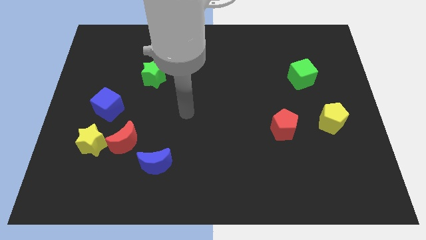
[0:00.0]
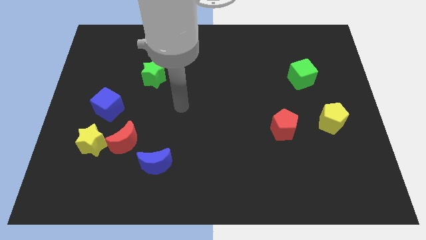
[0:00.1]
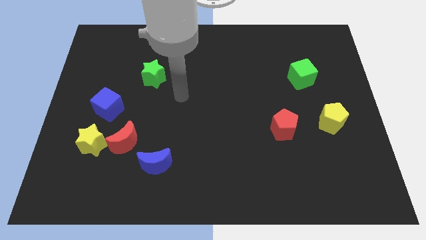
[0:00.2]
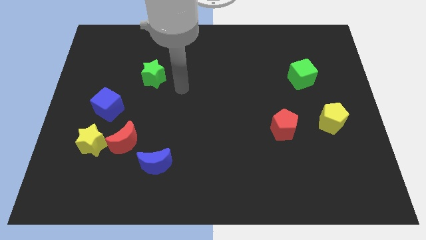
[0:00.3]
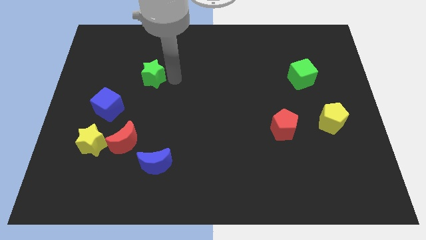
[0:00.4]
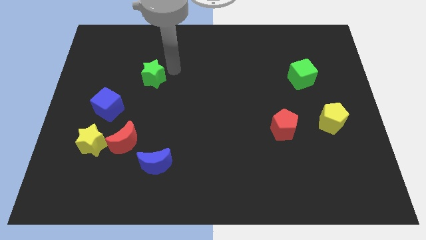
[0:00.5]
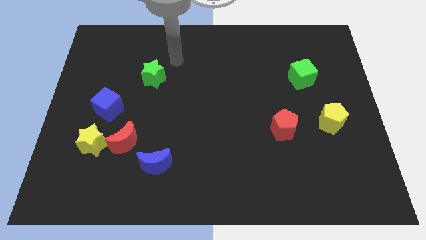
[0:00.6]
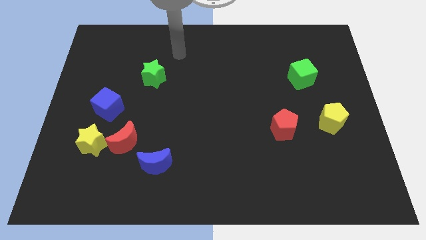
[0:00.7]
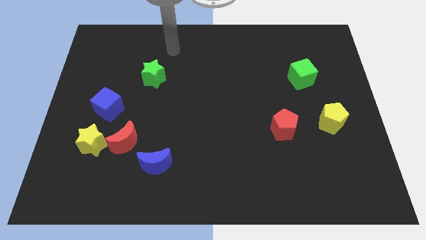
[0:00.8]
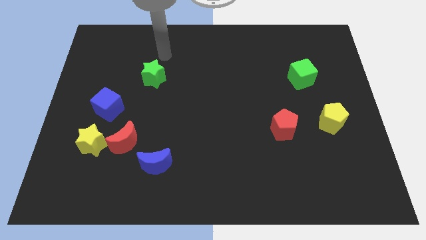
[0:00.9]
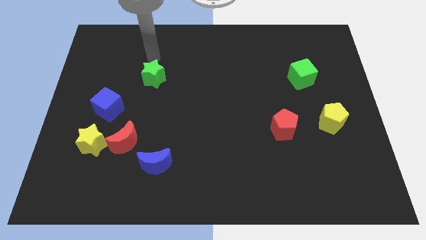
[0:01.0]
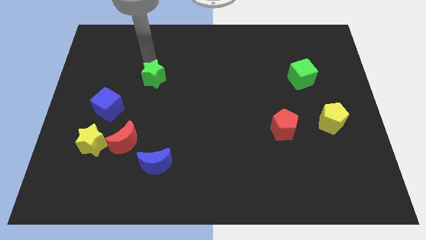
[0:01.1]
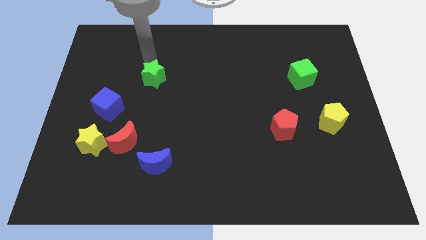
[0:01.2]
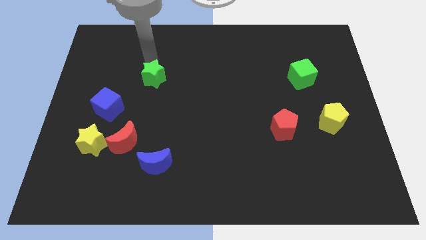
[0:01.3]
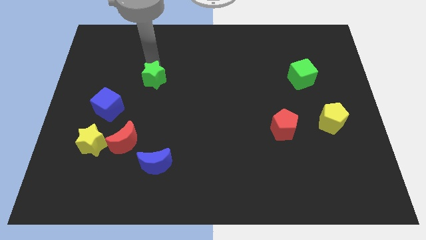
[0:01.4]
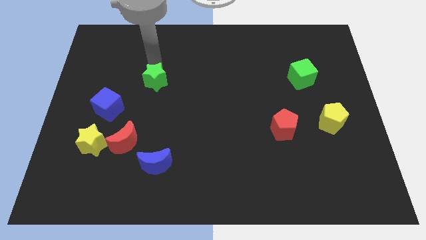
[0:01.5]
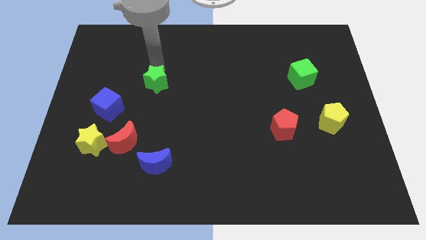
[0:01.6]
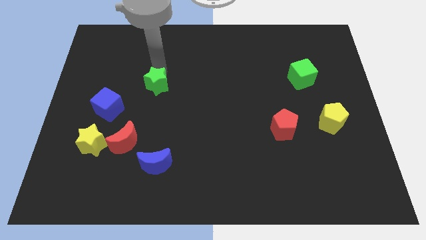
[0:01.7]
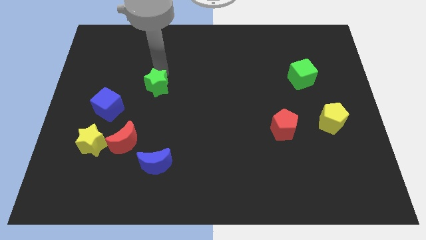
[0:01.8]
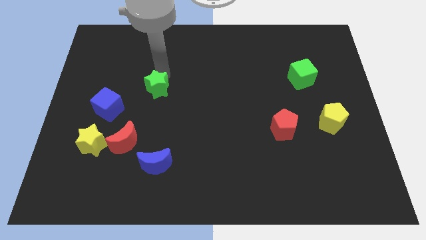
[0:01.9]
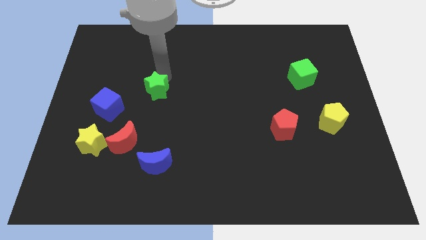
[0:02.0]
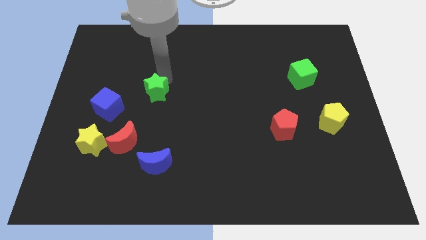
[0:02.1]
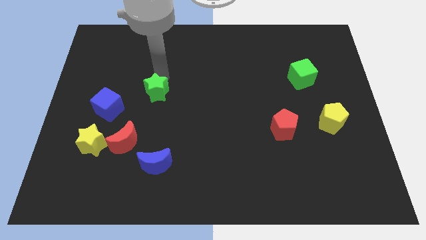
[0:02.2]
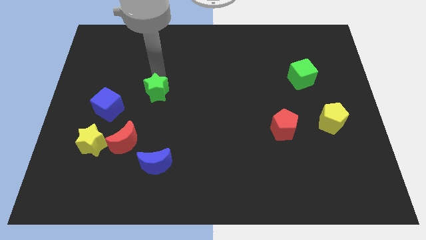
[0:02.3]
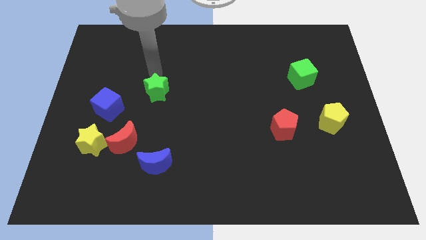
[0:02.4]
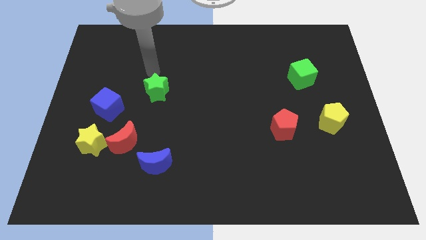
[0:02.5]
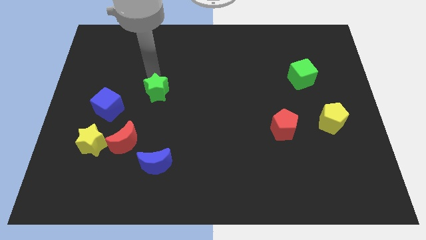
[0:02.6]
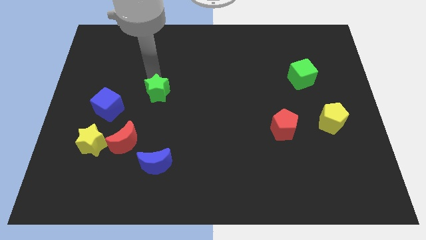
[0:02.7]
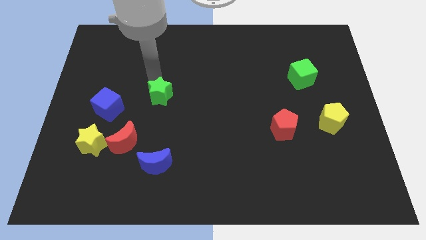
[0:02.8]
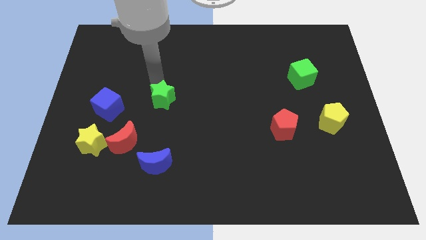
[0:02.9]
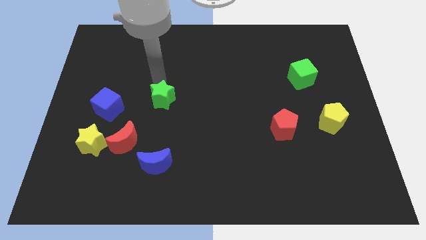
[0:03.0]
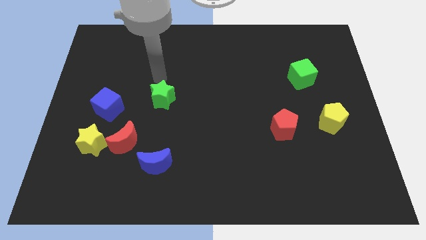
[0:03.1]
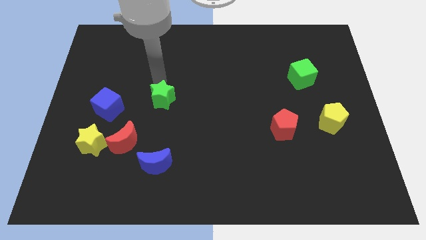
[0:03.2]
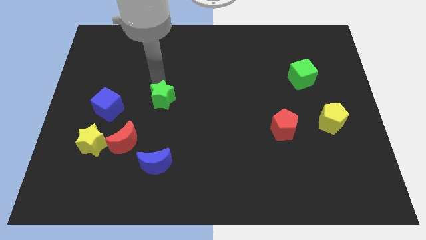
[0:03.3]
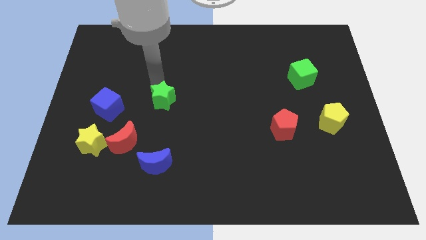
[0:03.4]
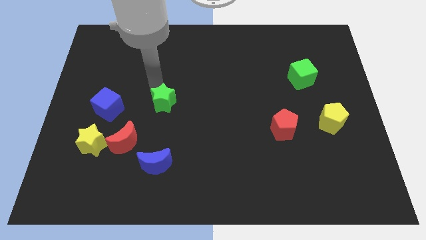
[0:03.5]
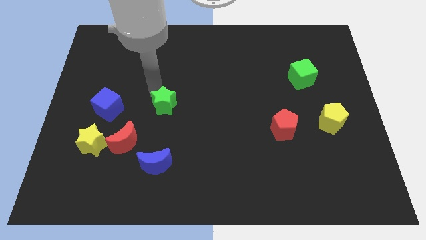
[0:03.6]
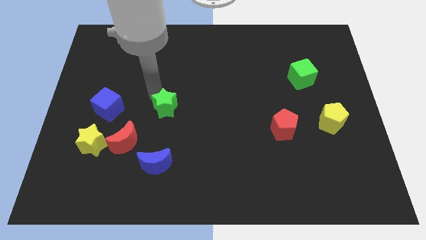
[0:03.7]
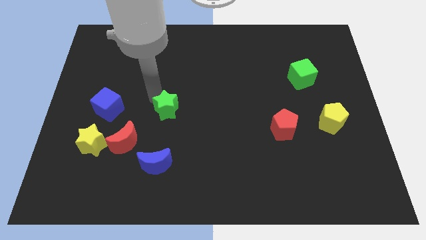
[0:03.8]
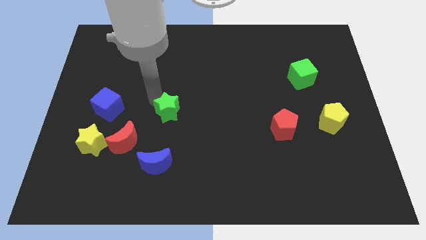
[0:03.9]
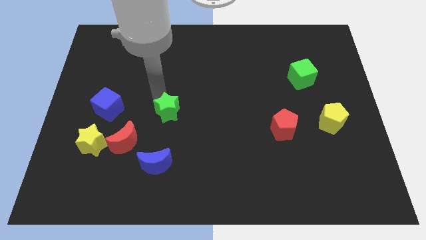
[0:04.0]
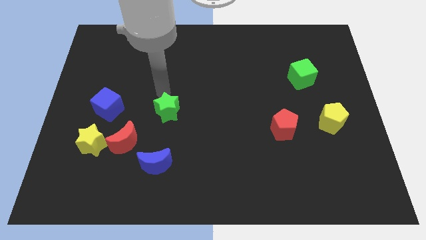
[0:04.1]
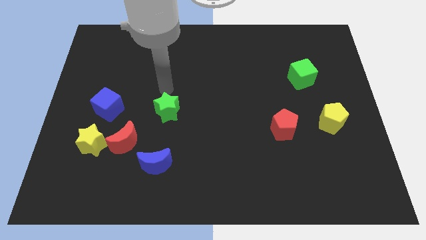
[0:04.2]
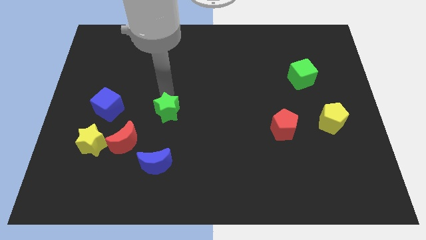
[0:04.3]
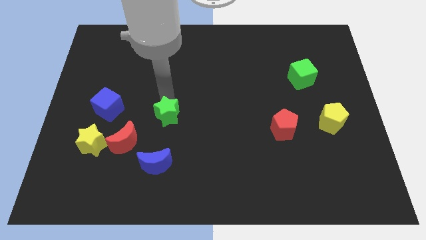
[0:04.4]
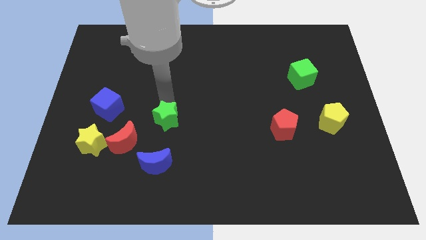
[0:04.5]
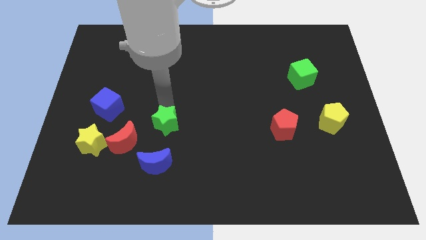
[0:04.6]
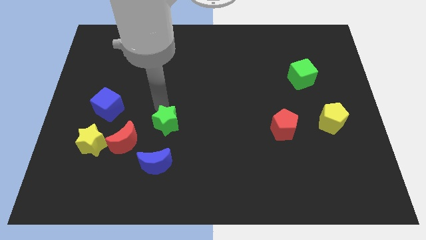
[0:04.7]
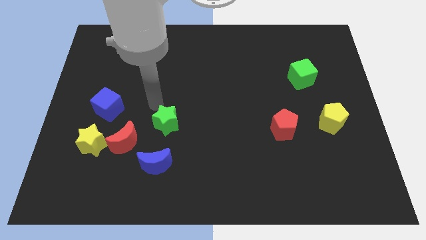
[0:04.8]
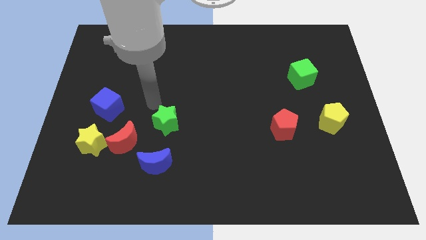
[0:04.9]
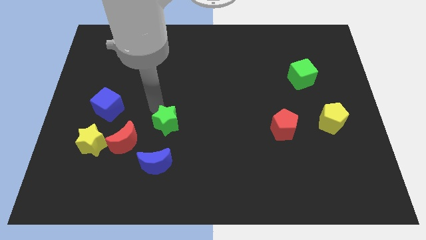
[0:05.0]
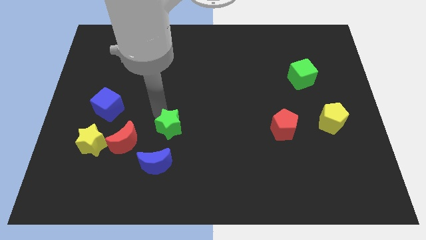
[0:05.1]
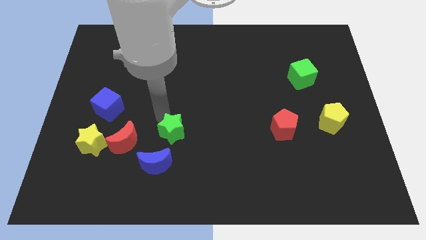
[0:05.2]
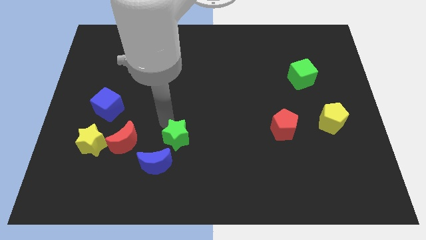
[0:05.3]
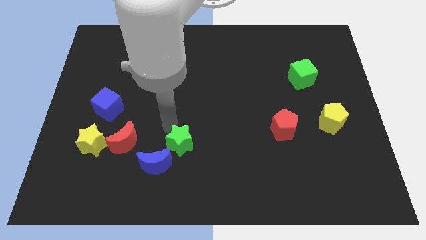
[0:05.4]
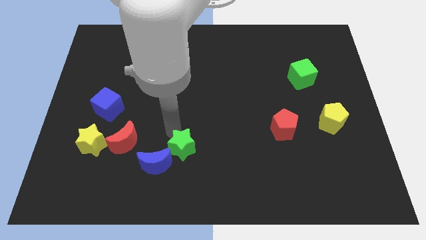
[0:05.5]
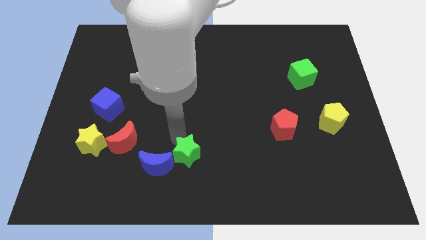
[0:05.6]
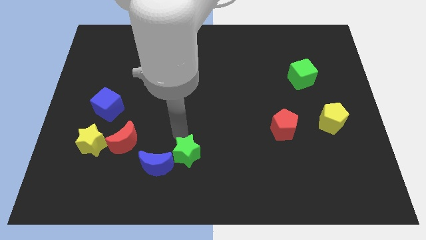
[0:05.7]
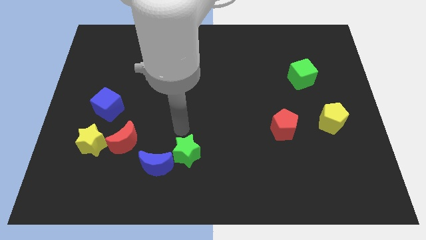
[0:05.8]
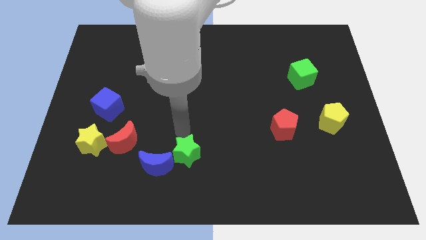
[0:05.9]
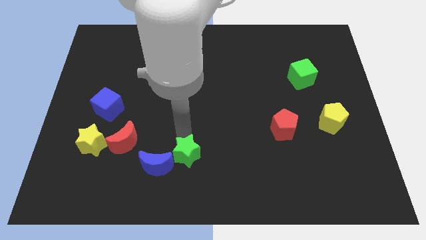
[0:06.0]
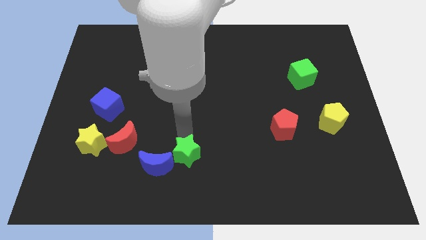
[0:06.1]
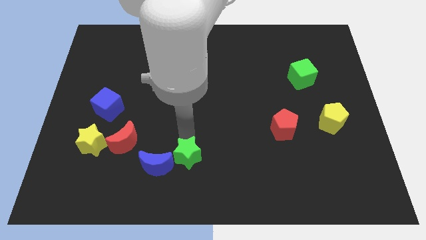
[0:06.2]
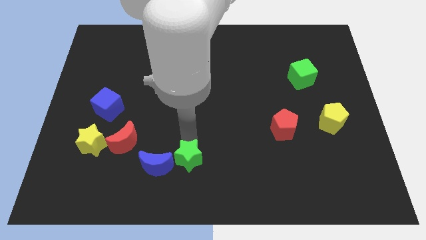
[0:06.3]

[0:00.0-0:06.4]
slide the green star to the bottom side

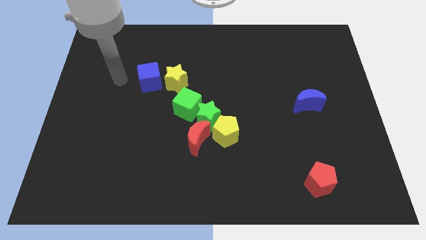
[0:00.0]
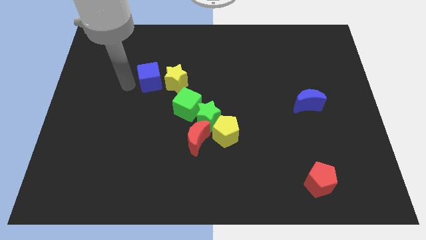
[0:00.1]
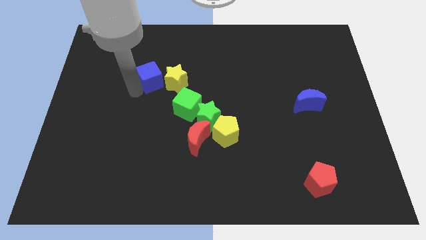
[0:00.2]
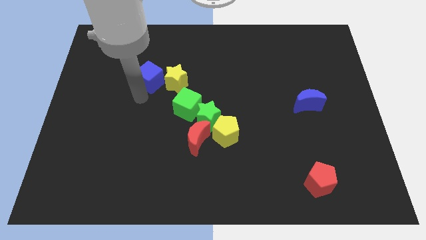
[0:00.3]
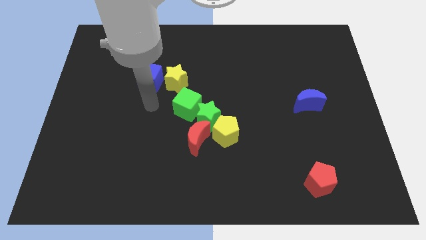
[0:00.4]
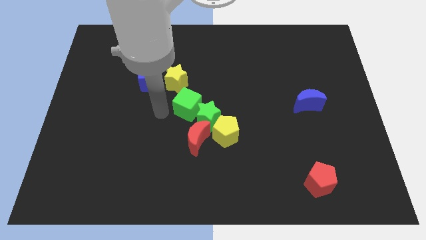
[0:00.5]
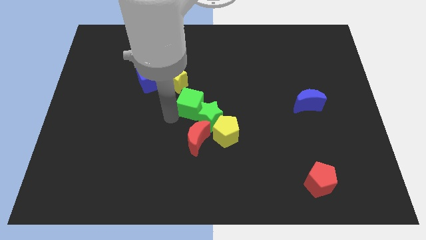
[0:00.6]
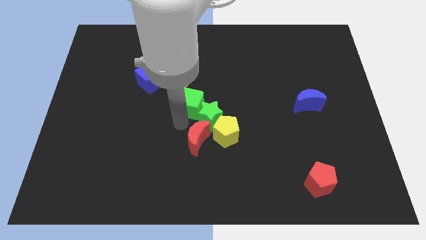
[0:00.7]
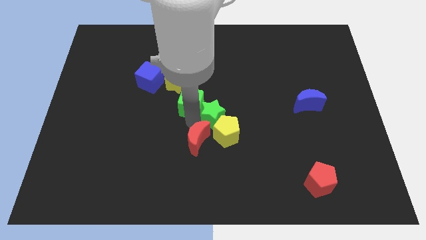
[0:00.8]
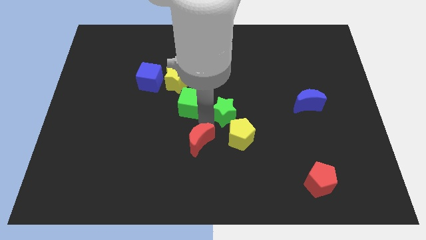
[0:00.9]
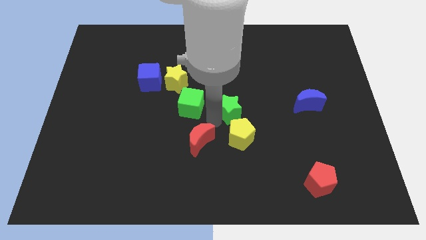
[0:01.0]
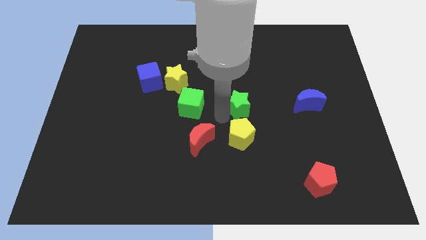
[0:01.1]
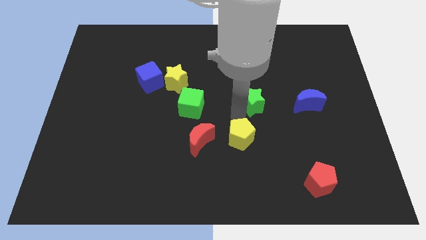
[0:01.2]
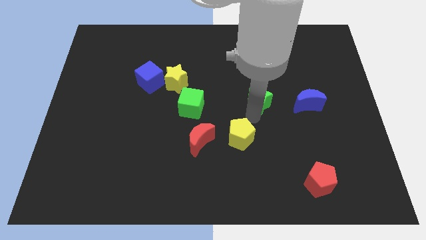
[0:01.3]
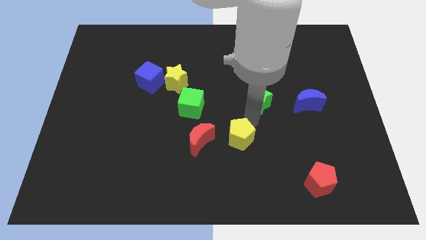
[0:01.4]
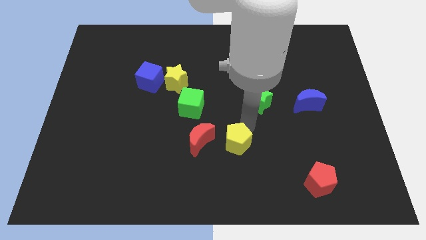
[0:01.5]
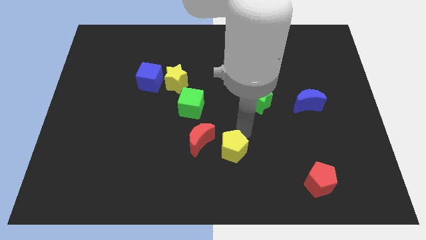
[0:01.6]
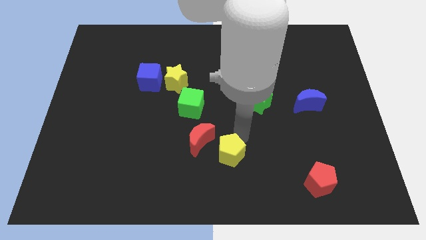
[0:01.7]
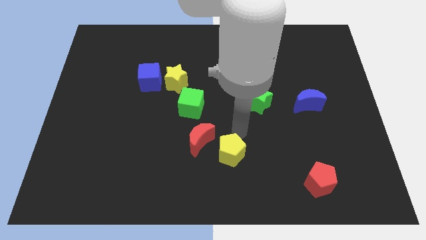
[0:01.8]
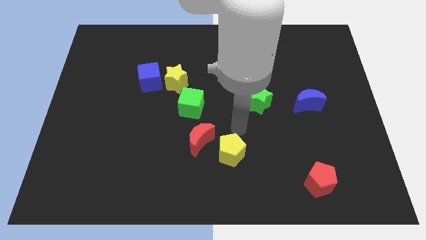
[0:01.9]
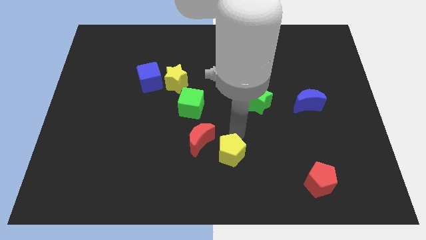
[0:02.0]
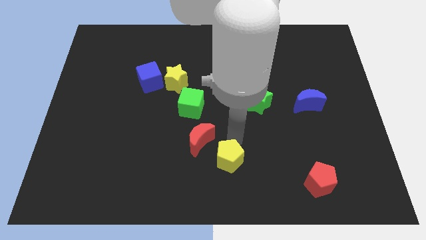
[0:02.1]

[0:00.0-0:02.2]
slide the yellow pentagon to the bottom
